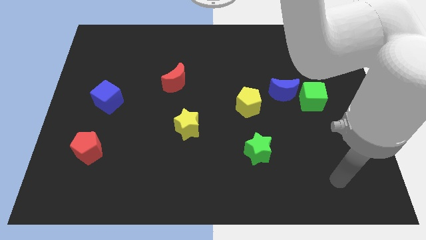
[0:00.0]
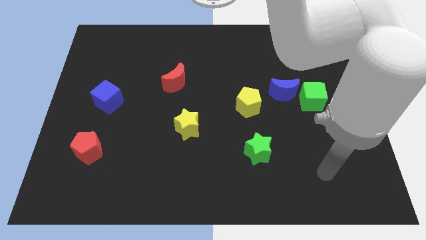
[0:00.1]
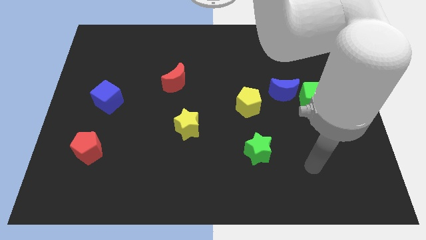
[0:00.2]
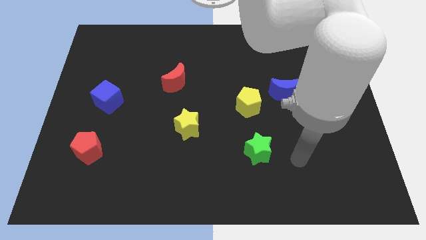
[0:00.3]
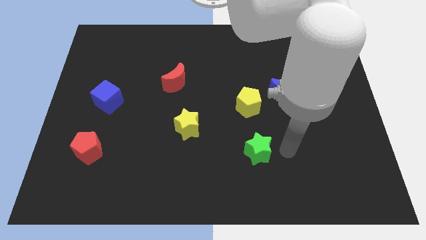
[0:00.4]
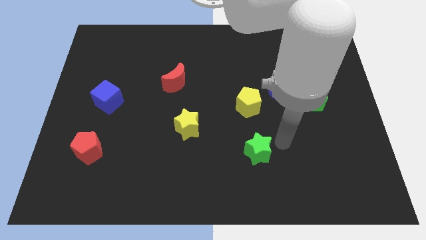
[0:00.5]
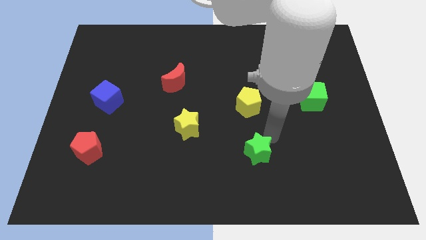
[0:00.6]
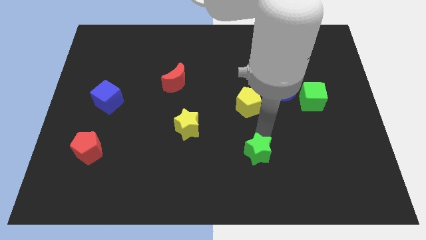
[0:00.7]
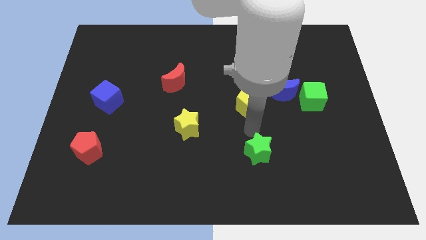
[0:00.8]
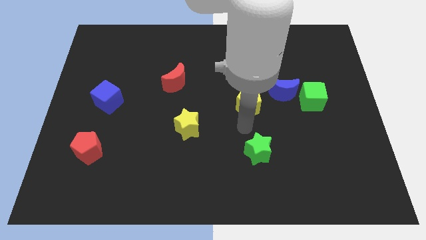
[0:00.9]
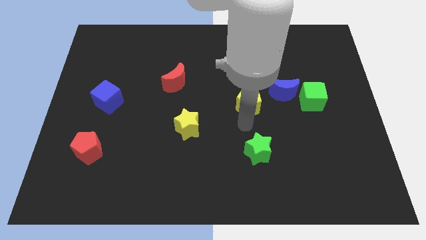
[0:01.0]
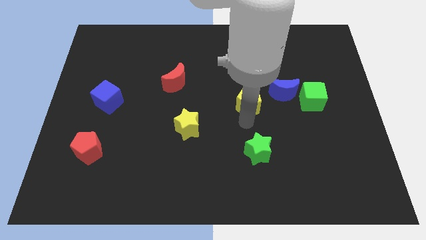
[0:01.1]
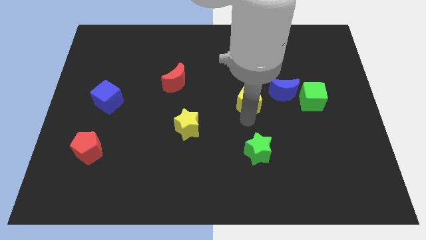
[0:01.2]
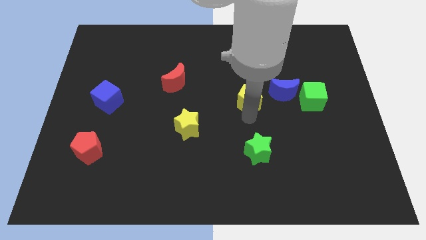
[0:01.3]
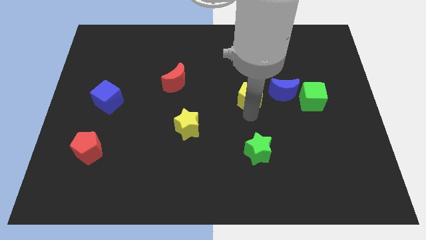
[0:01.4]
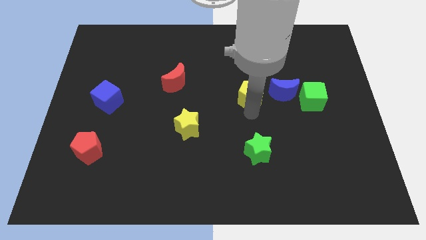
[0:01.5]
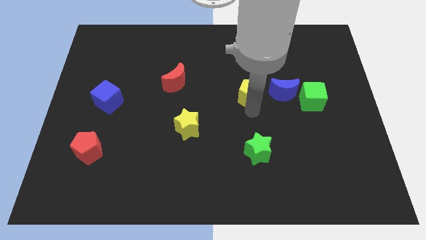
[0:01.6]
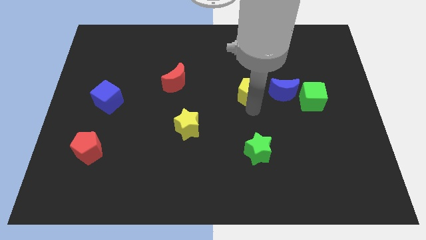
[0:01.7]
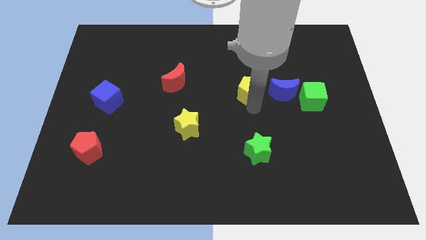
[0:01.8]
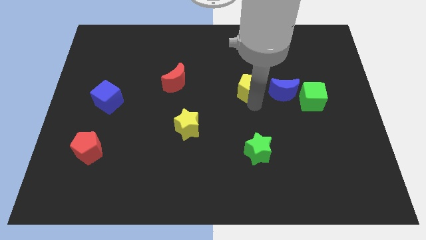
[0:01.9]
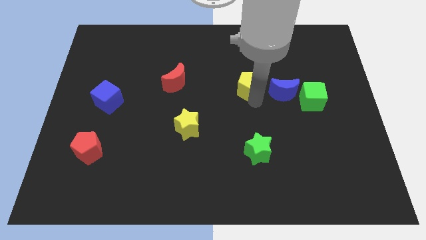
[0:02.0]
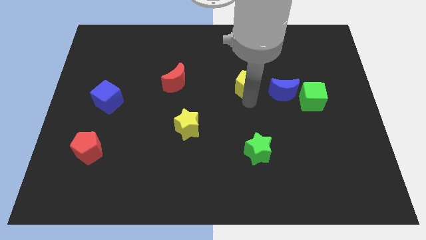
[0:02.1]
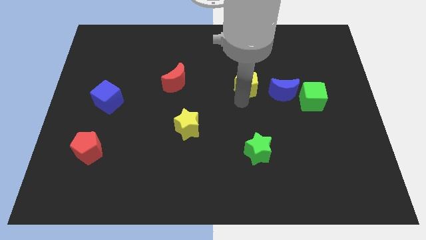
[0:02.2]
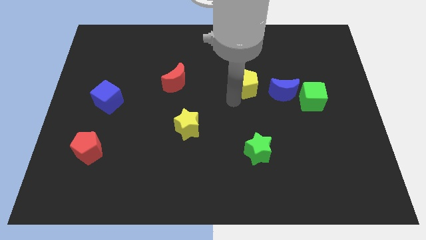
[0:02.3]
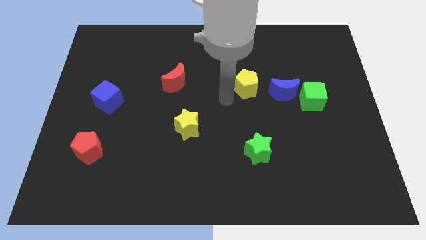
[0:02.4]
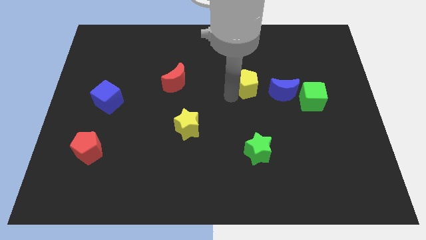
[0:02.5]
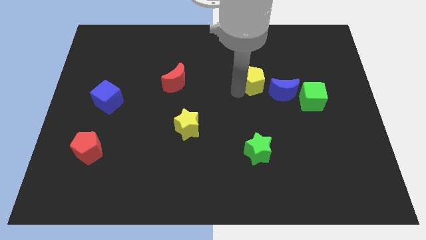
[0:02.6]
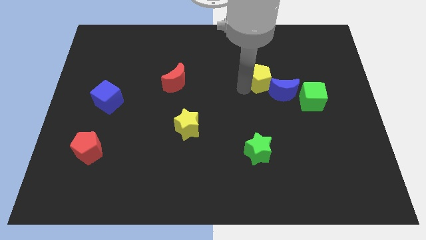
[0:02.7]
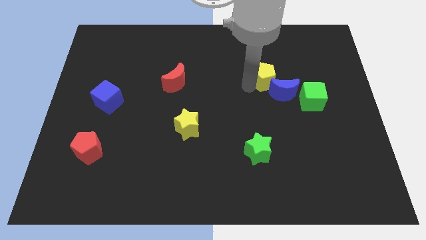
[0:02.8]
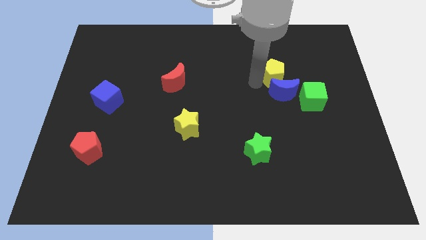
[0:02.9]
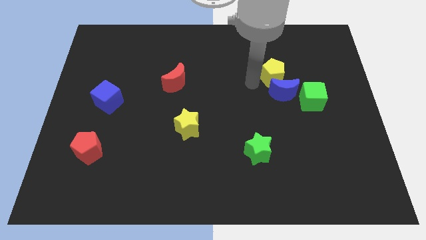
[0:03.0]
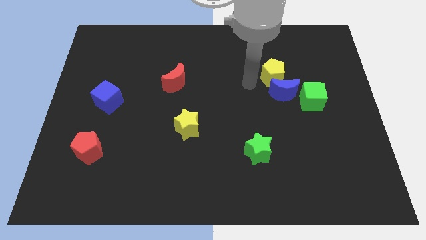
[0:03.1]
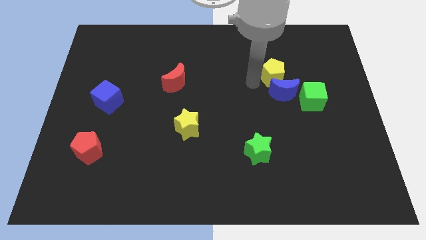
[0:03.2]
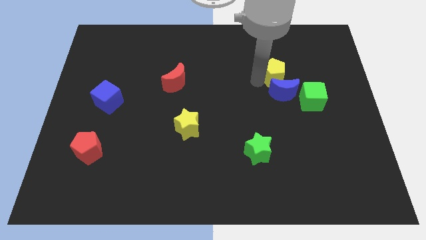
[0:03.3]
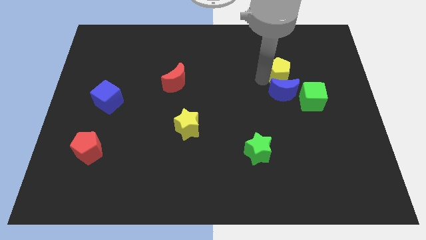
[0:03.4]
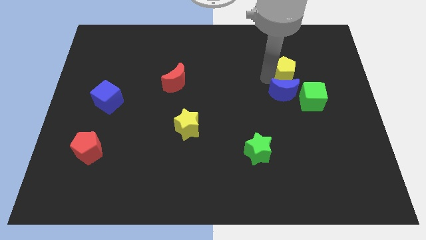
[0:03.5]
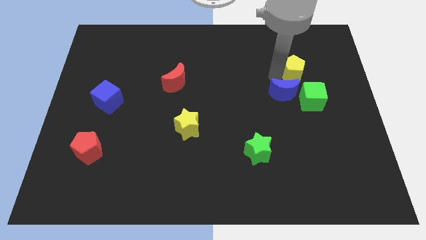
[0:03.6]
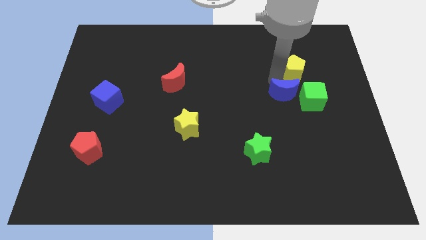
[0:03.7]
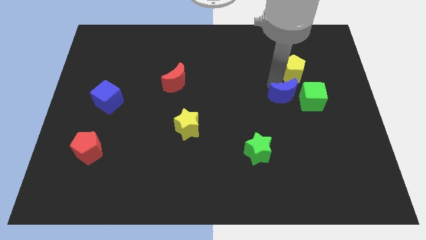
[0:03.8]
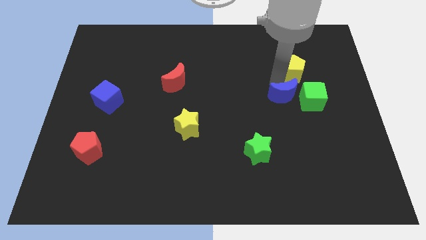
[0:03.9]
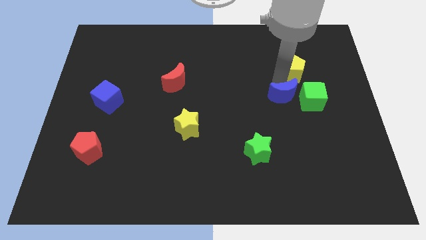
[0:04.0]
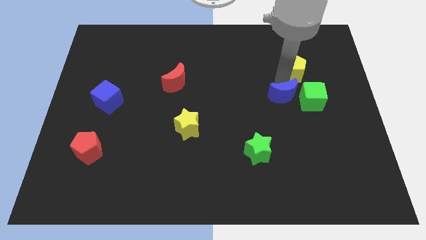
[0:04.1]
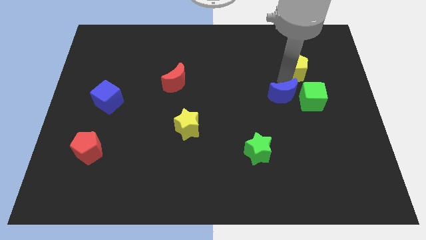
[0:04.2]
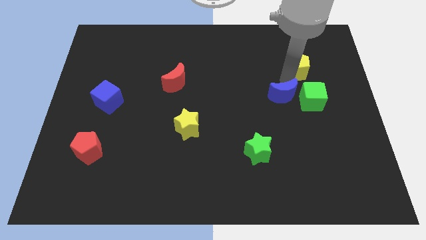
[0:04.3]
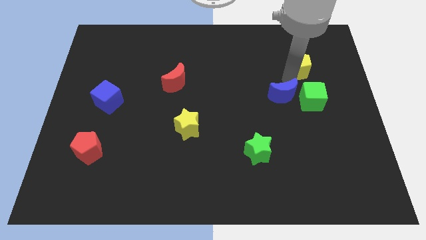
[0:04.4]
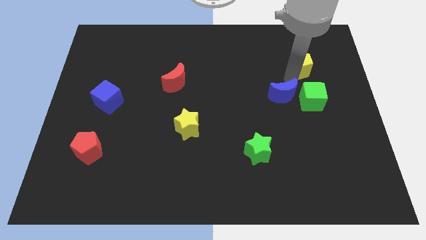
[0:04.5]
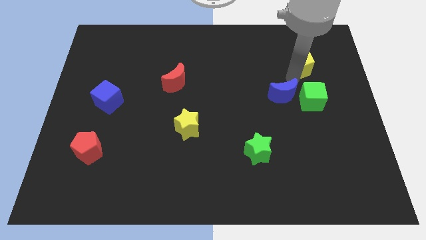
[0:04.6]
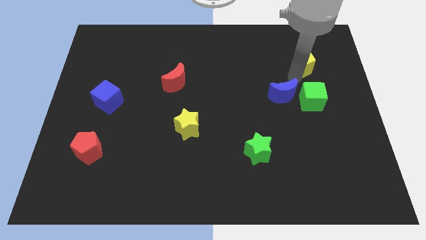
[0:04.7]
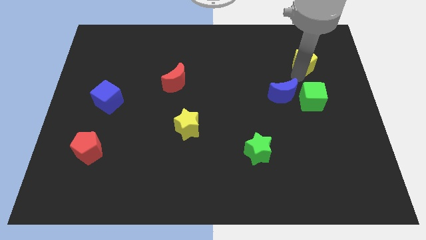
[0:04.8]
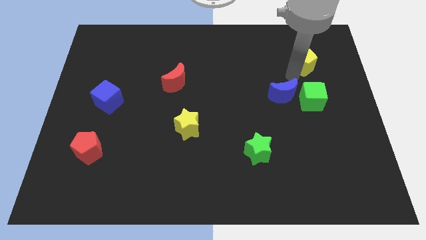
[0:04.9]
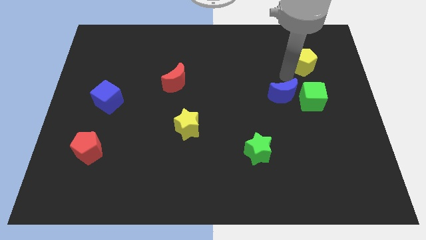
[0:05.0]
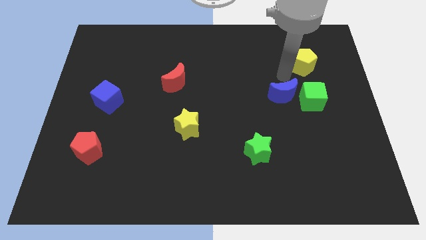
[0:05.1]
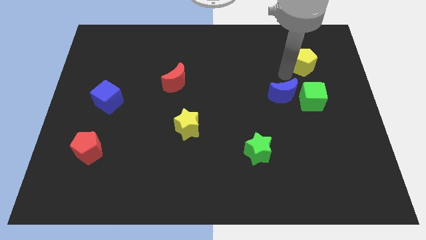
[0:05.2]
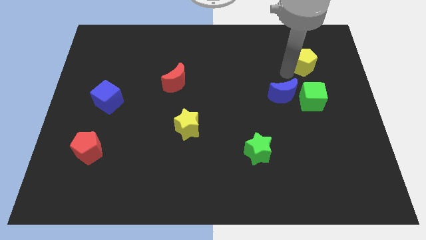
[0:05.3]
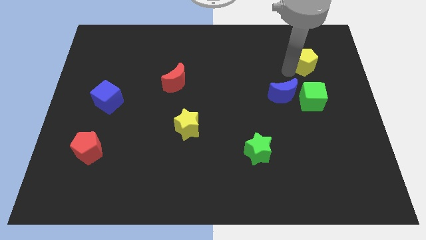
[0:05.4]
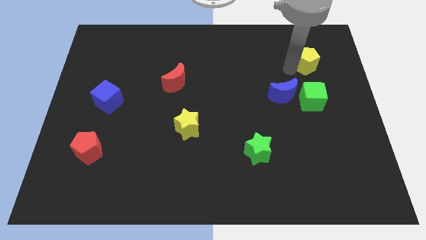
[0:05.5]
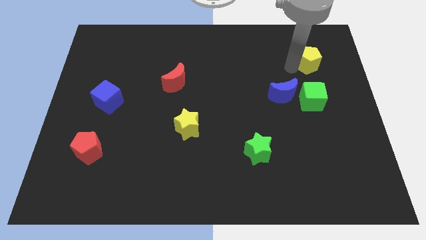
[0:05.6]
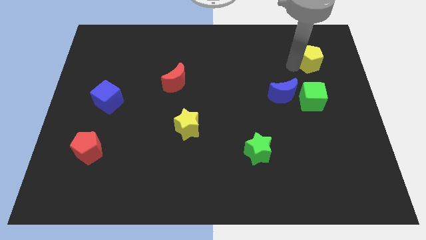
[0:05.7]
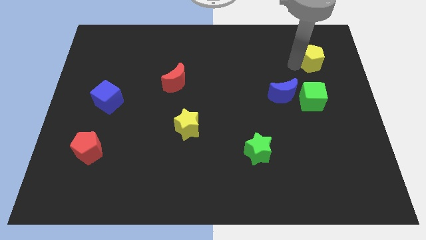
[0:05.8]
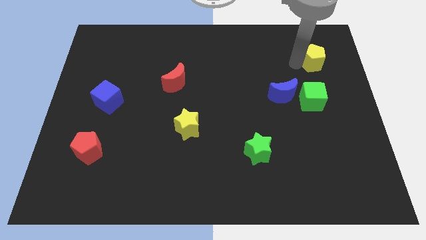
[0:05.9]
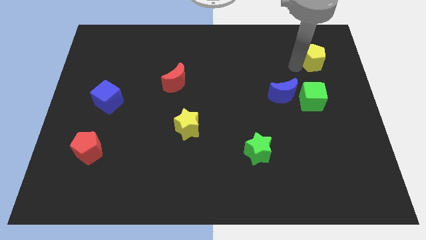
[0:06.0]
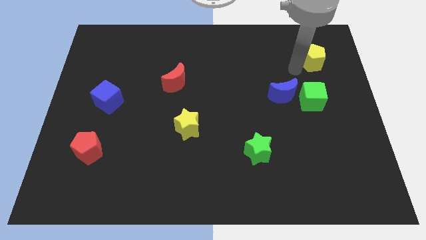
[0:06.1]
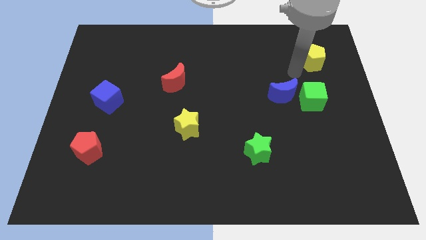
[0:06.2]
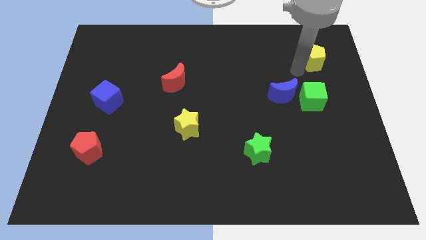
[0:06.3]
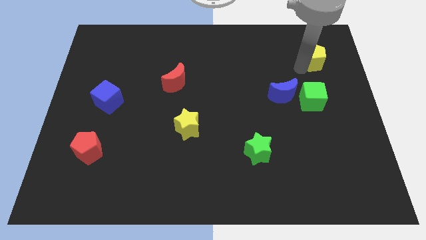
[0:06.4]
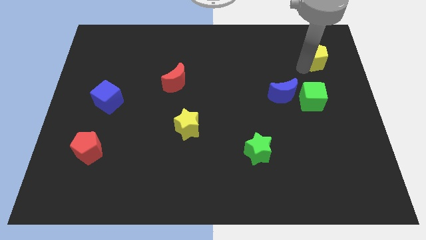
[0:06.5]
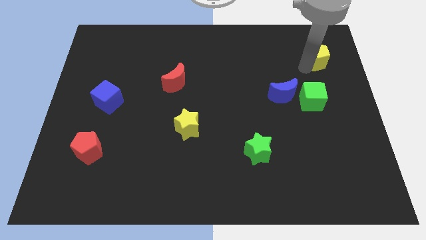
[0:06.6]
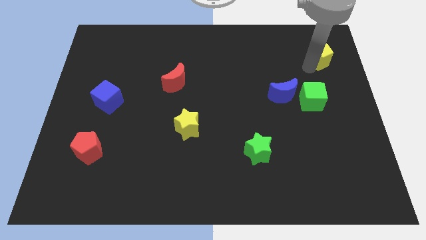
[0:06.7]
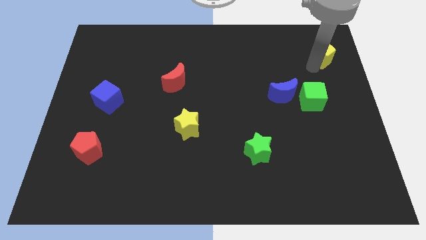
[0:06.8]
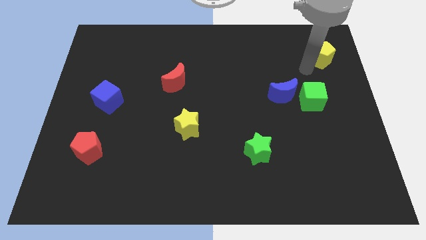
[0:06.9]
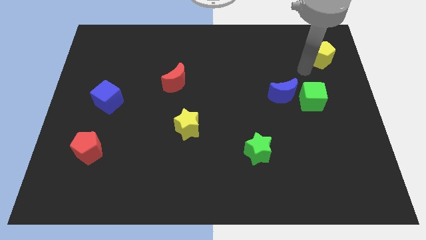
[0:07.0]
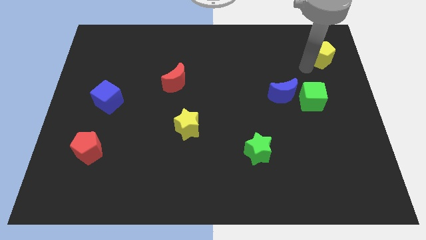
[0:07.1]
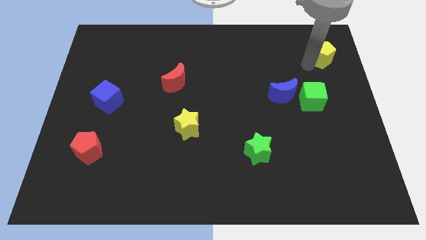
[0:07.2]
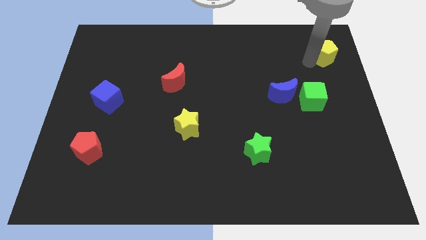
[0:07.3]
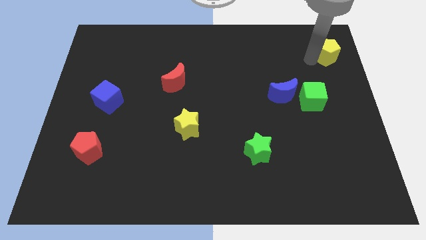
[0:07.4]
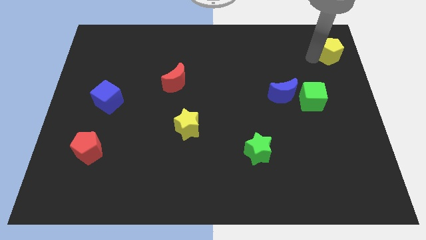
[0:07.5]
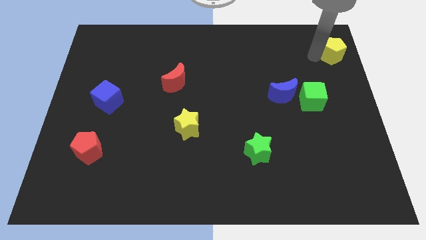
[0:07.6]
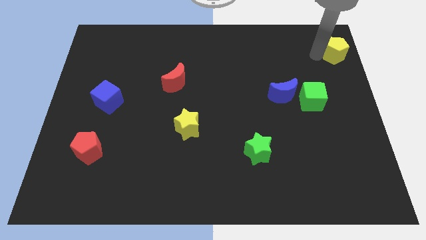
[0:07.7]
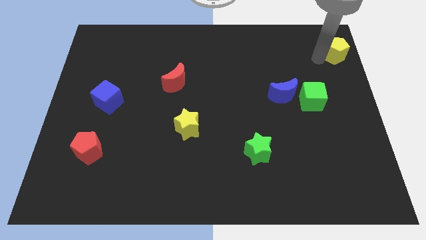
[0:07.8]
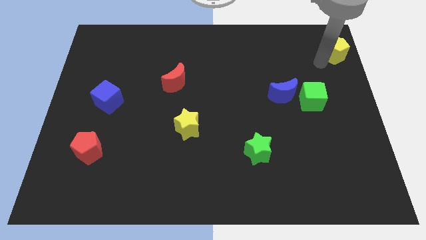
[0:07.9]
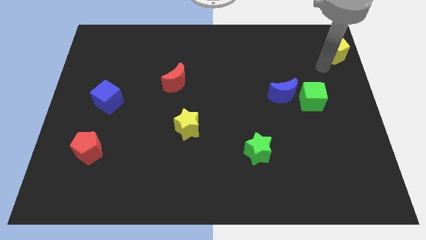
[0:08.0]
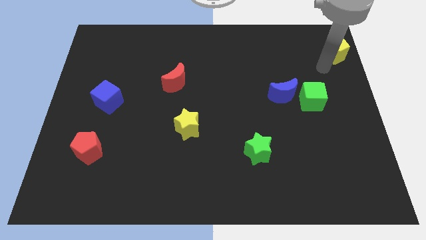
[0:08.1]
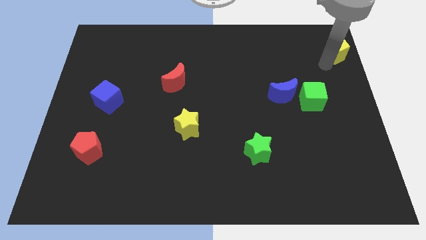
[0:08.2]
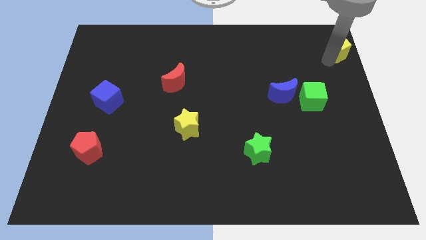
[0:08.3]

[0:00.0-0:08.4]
put the yellow pentagon to the top right of the board
